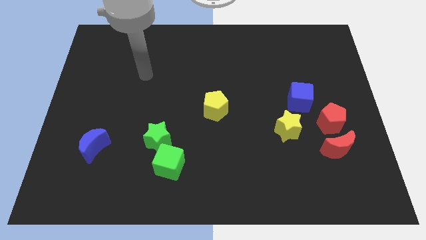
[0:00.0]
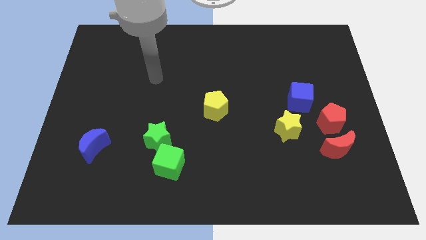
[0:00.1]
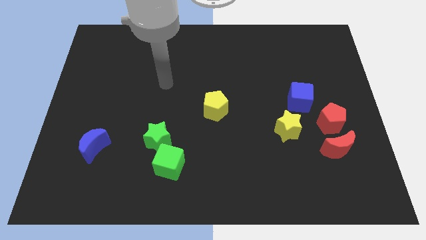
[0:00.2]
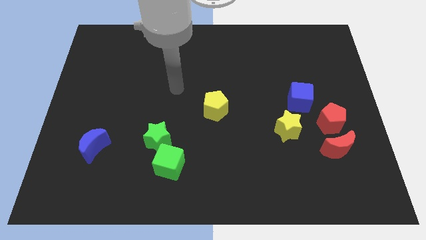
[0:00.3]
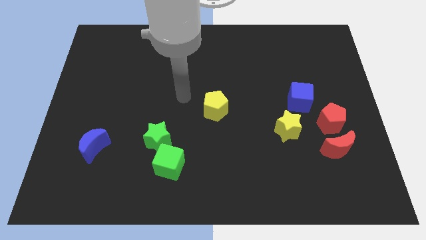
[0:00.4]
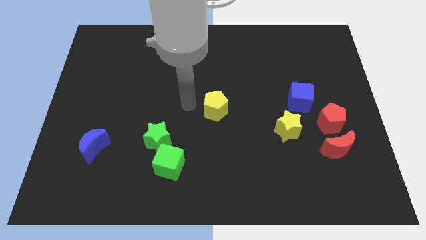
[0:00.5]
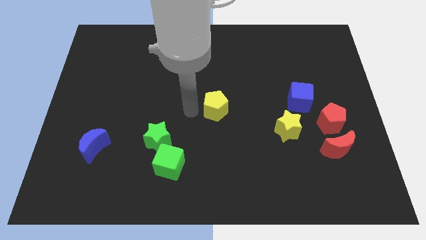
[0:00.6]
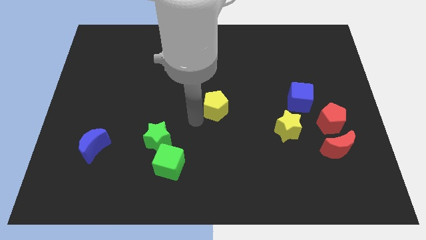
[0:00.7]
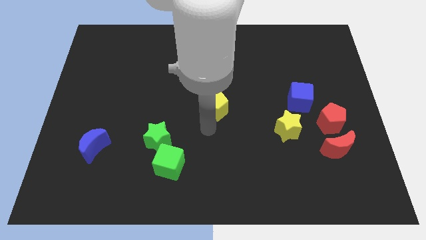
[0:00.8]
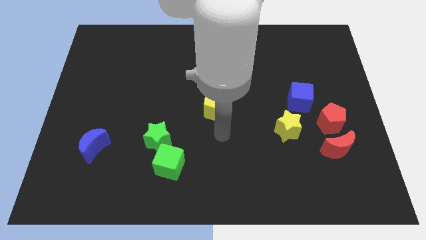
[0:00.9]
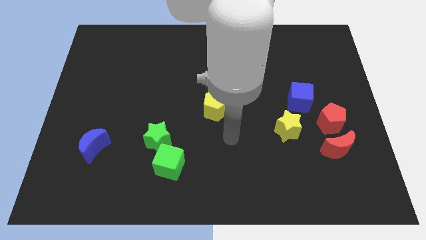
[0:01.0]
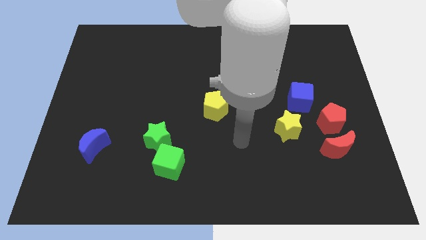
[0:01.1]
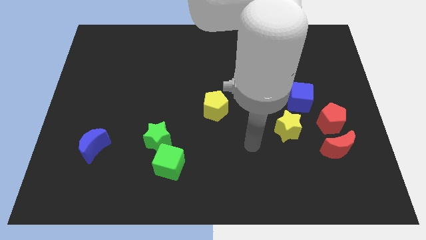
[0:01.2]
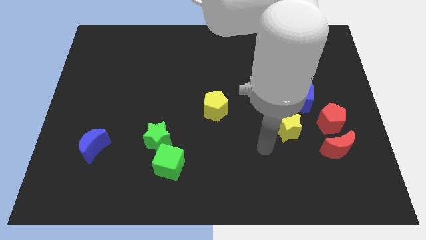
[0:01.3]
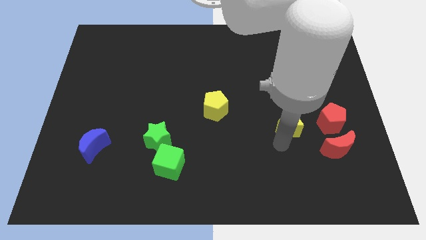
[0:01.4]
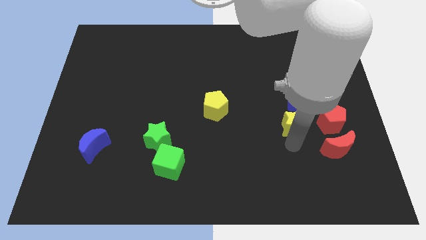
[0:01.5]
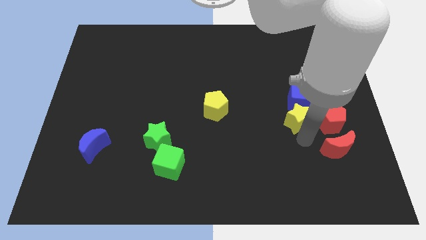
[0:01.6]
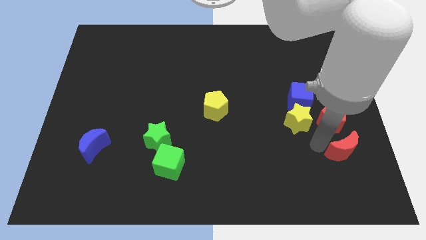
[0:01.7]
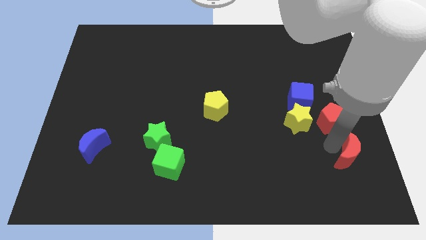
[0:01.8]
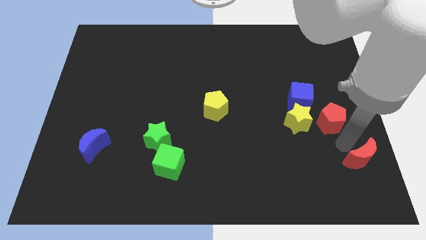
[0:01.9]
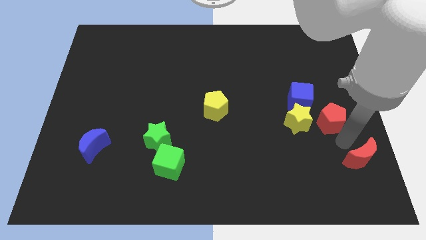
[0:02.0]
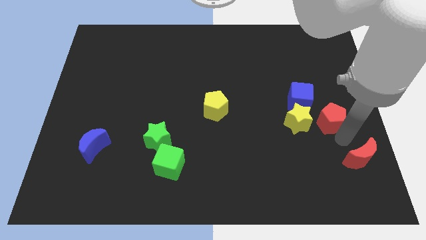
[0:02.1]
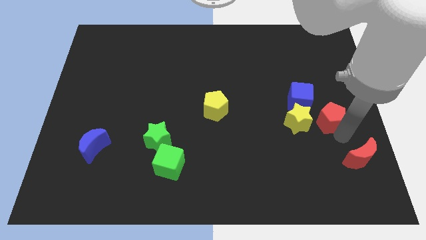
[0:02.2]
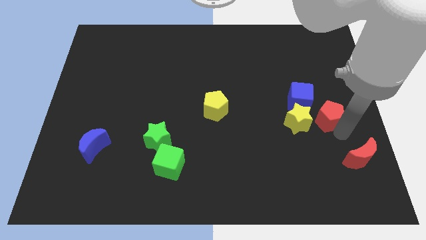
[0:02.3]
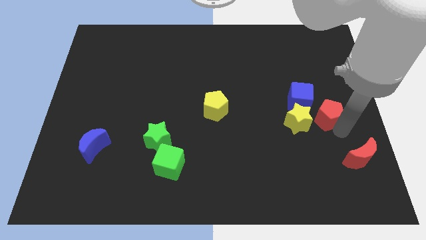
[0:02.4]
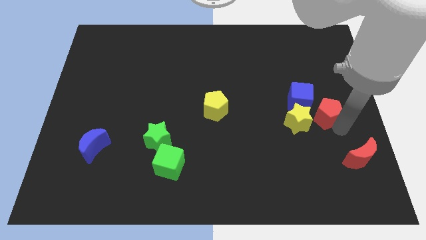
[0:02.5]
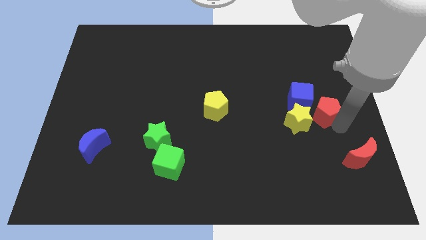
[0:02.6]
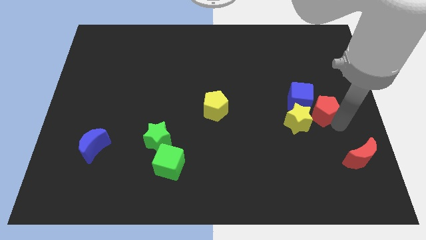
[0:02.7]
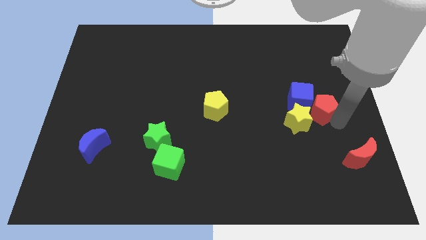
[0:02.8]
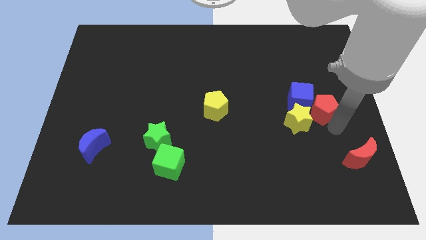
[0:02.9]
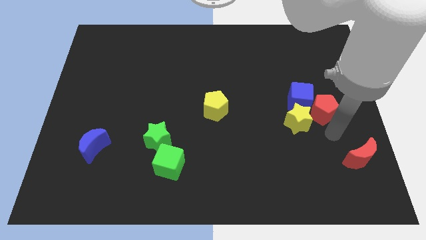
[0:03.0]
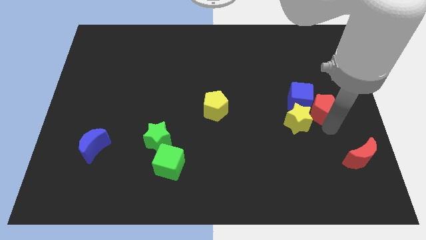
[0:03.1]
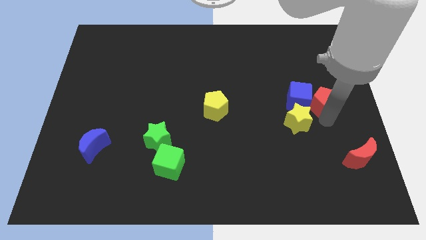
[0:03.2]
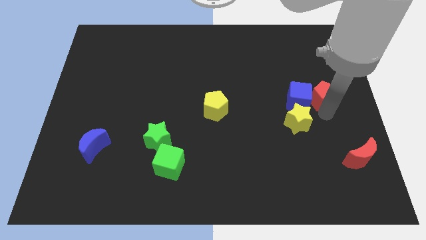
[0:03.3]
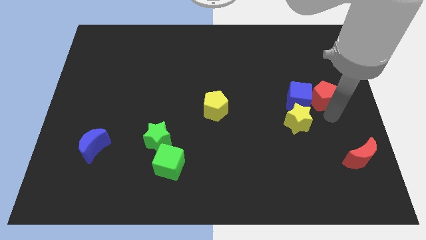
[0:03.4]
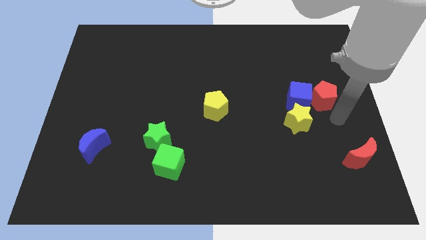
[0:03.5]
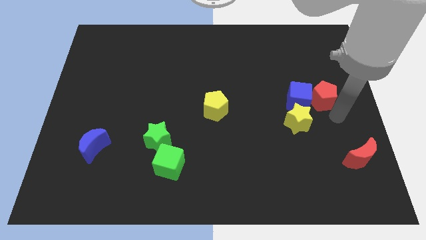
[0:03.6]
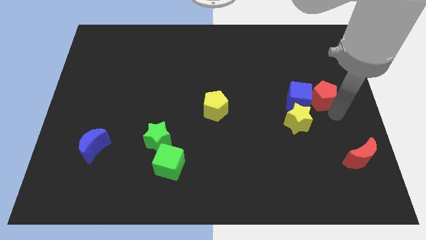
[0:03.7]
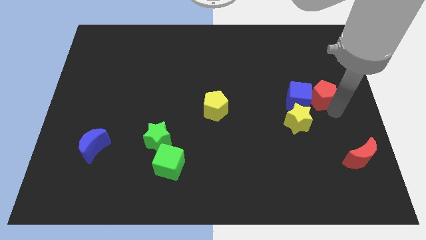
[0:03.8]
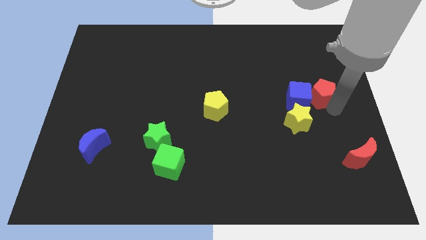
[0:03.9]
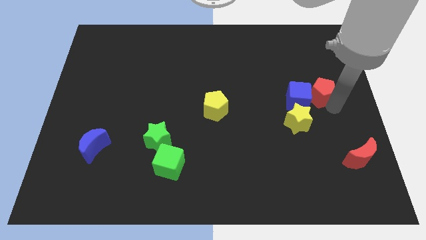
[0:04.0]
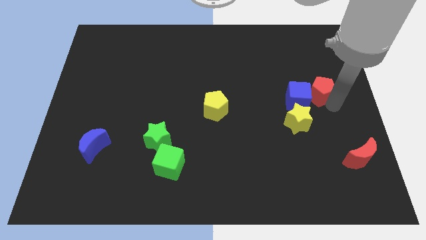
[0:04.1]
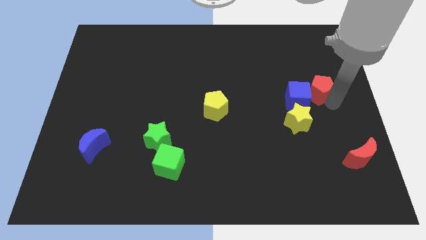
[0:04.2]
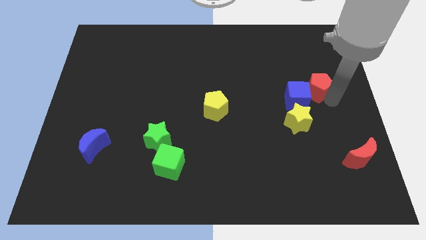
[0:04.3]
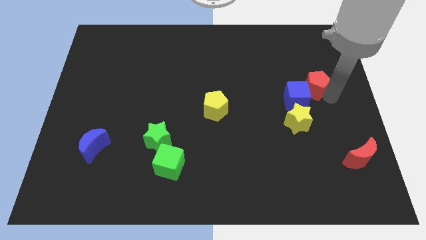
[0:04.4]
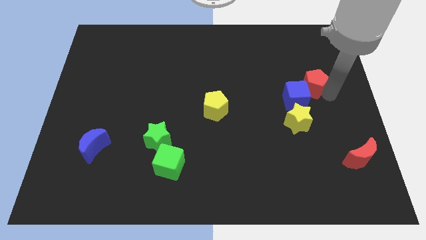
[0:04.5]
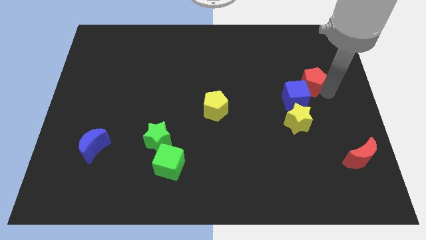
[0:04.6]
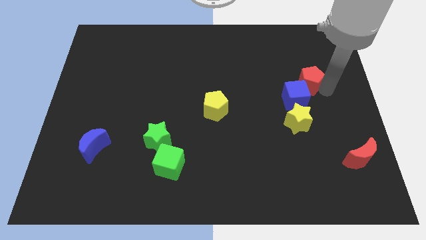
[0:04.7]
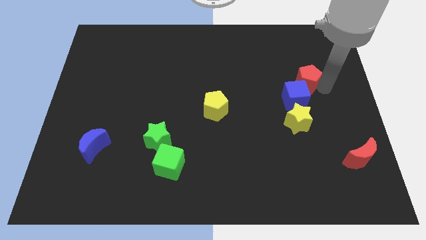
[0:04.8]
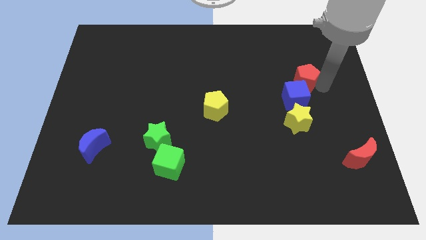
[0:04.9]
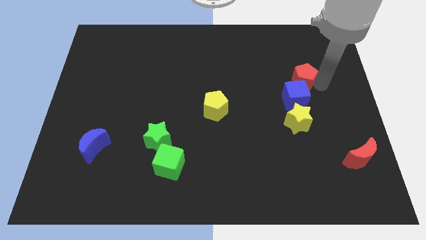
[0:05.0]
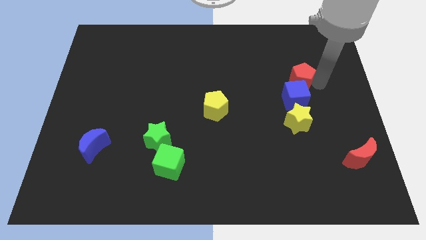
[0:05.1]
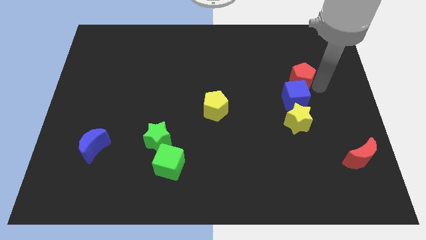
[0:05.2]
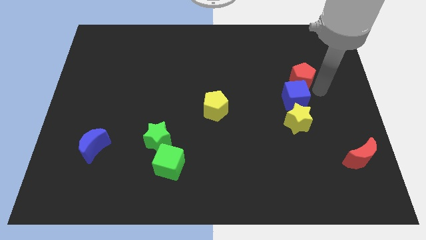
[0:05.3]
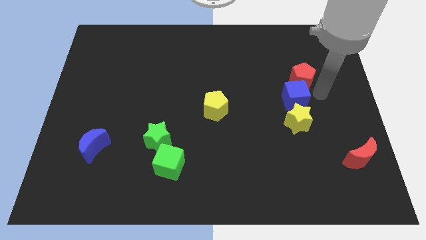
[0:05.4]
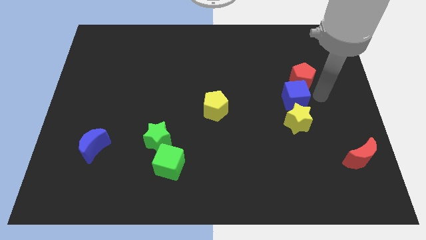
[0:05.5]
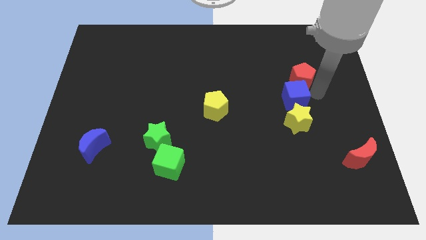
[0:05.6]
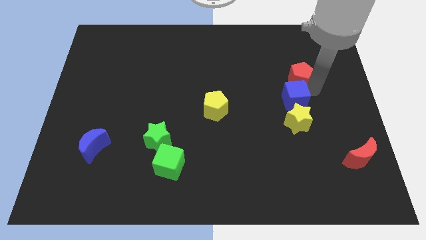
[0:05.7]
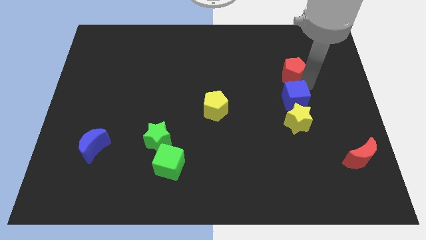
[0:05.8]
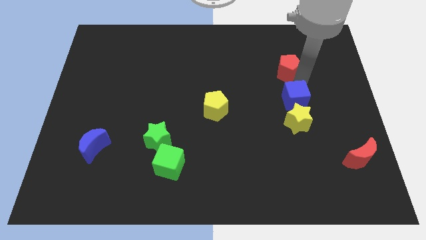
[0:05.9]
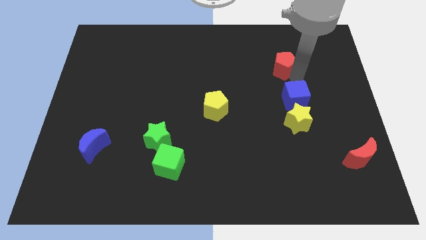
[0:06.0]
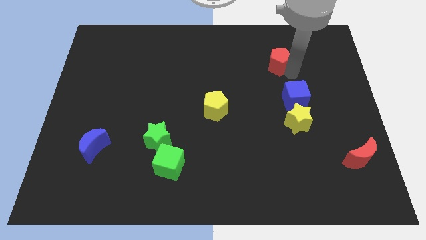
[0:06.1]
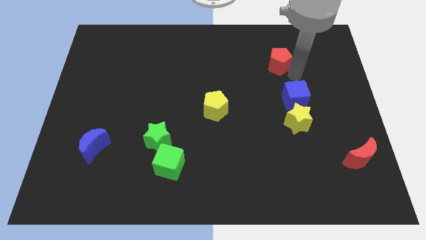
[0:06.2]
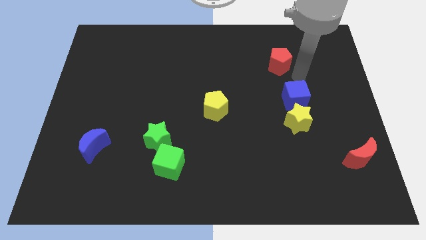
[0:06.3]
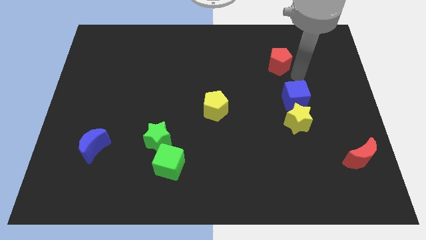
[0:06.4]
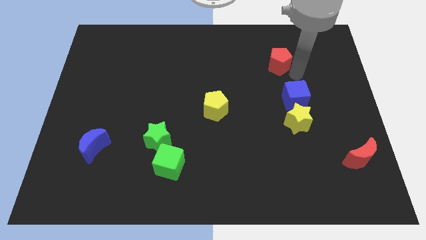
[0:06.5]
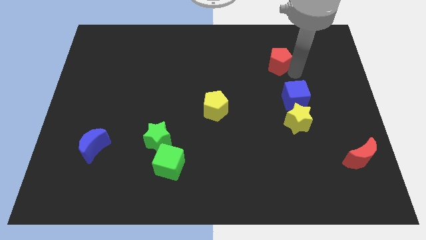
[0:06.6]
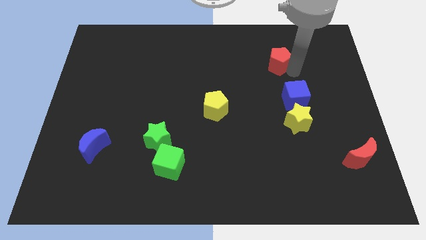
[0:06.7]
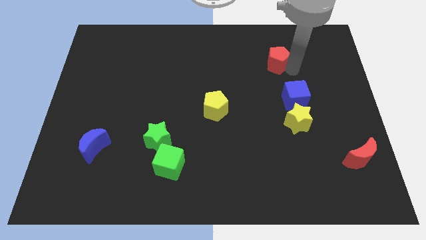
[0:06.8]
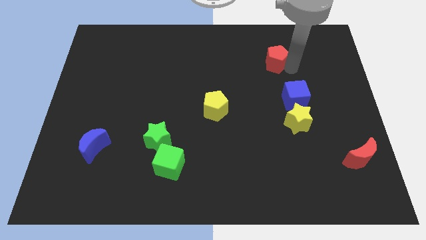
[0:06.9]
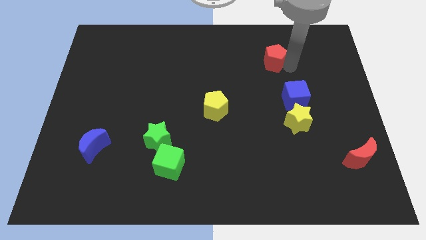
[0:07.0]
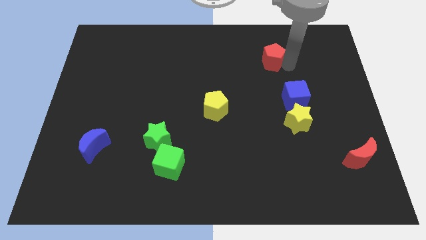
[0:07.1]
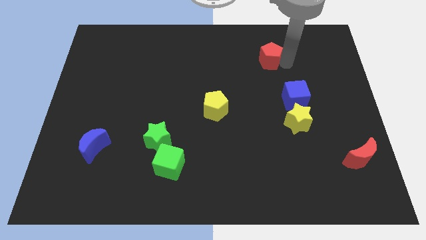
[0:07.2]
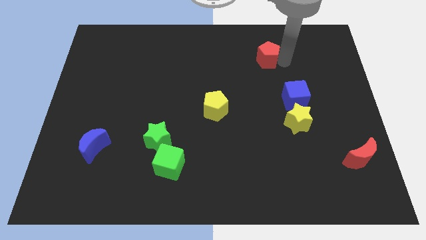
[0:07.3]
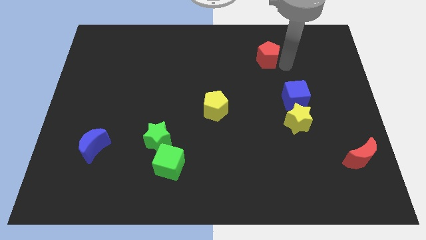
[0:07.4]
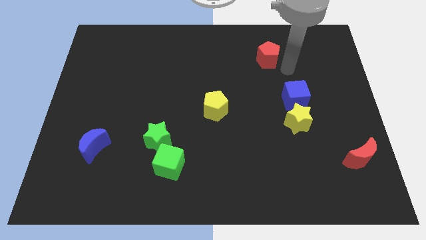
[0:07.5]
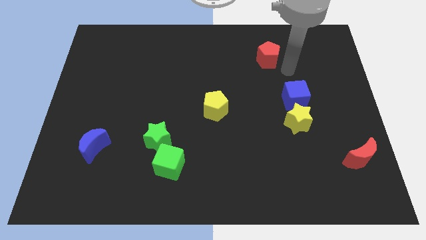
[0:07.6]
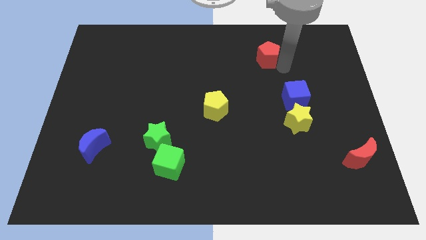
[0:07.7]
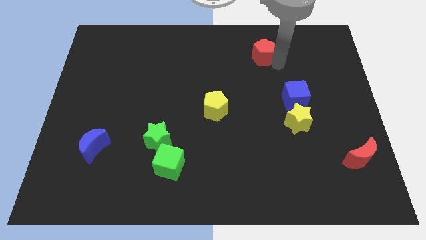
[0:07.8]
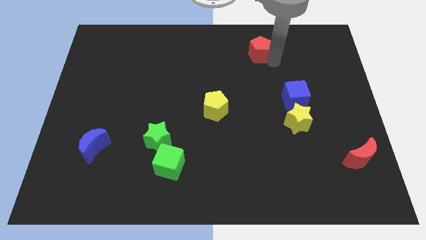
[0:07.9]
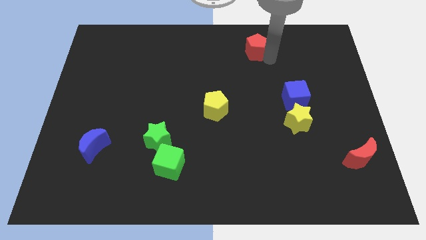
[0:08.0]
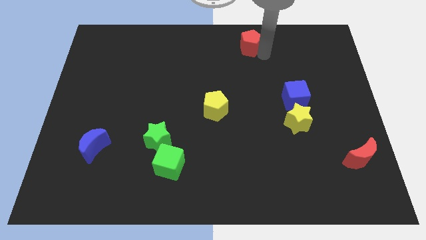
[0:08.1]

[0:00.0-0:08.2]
push the red pentagon to the top
